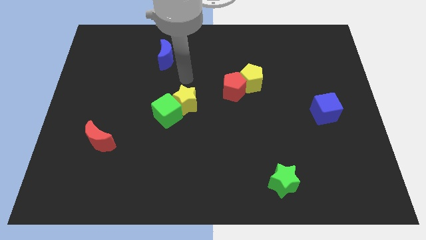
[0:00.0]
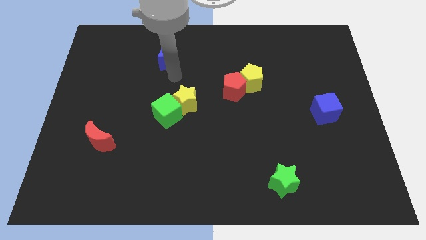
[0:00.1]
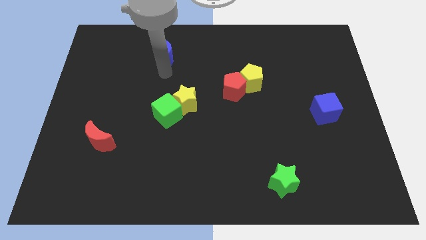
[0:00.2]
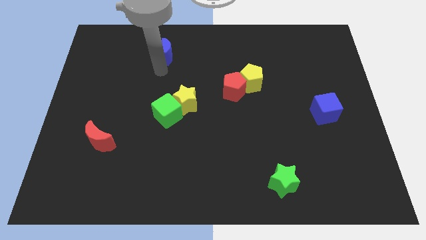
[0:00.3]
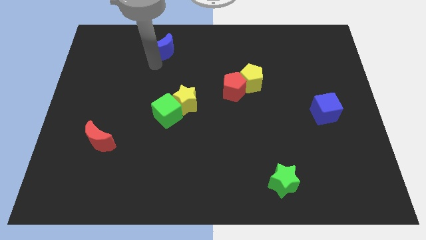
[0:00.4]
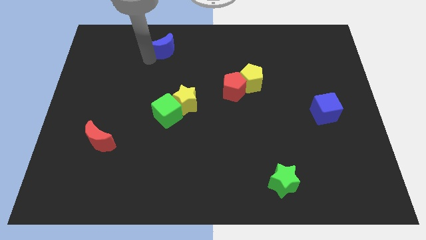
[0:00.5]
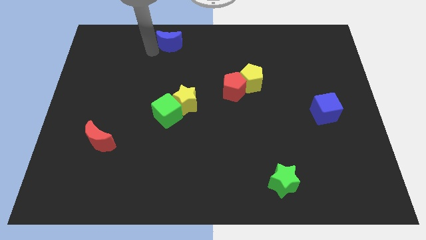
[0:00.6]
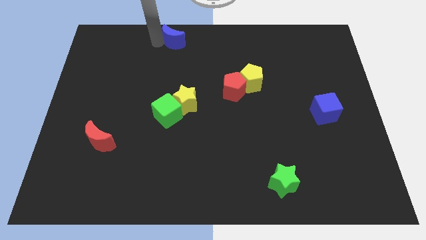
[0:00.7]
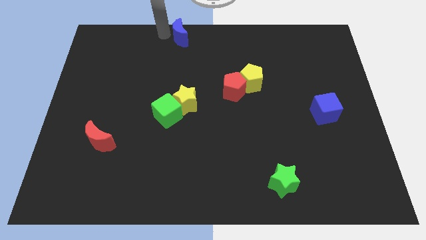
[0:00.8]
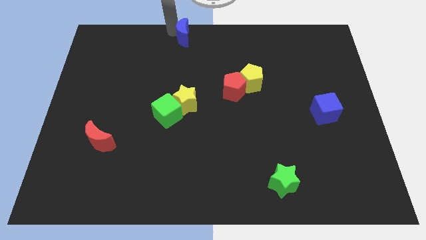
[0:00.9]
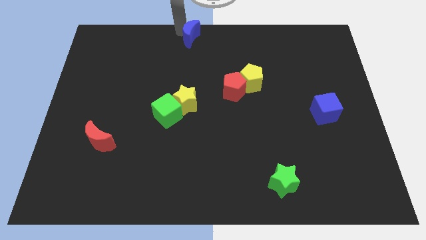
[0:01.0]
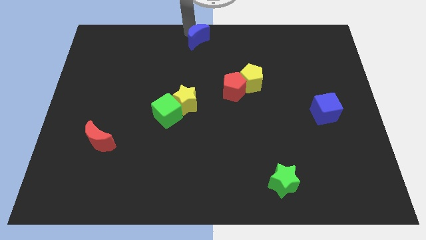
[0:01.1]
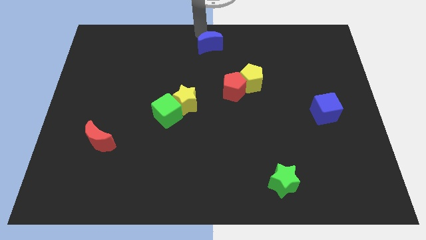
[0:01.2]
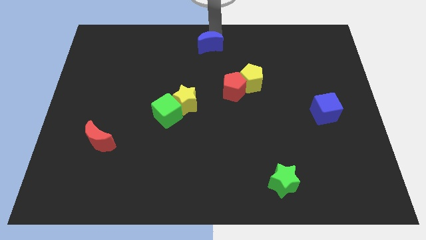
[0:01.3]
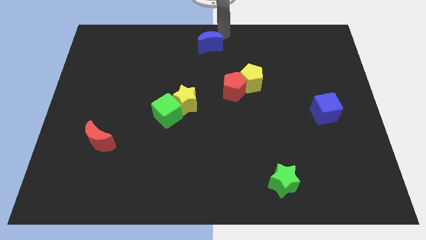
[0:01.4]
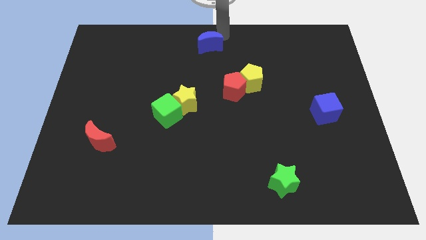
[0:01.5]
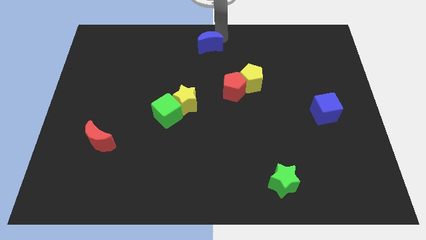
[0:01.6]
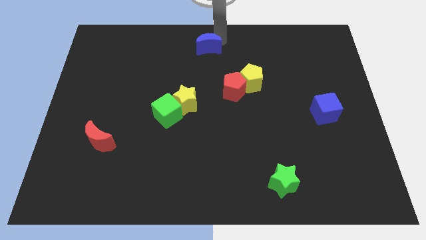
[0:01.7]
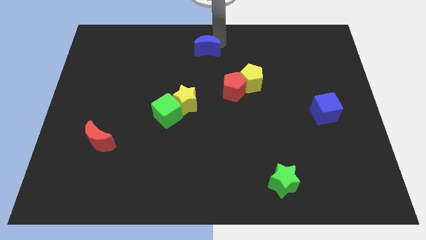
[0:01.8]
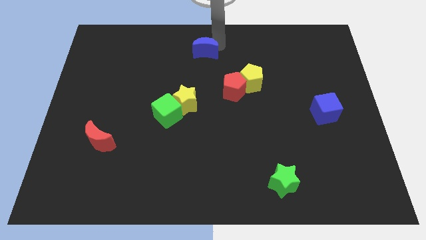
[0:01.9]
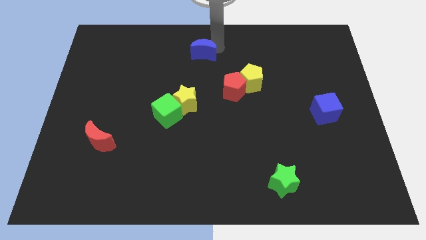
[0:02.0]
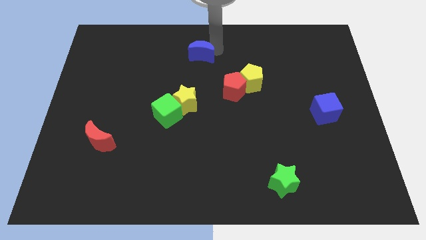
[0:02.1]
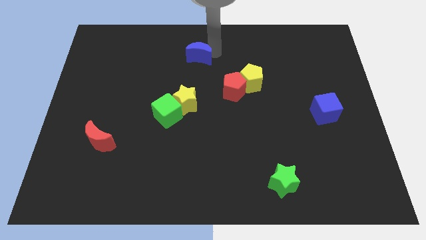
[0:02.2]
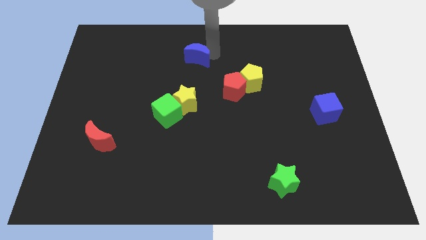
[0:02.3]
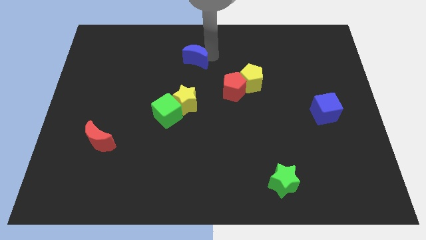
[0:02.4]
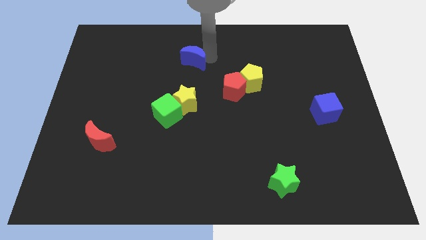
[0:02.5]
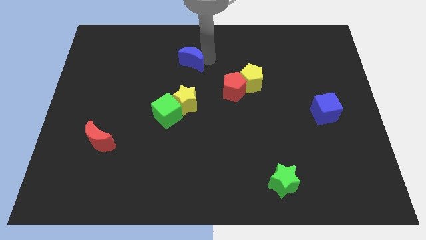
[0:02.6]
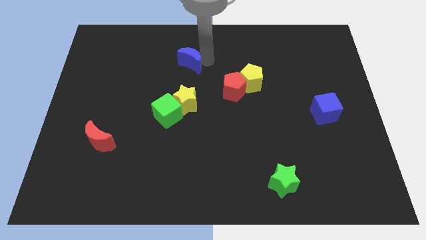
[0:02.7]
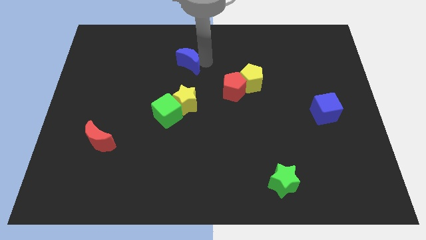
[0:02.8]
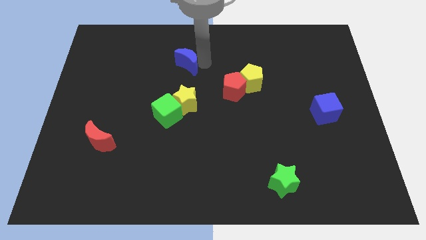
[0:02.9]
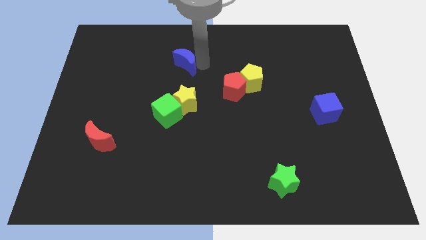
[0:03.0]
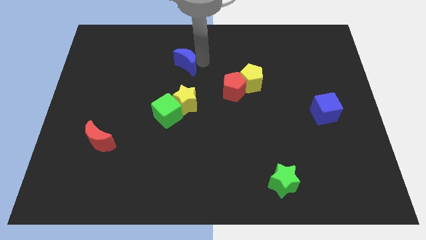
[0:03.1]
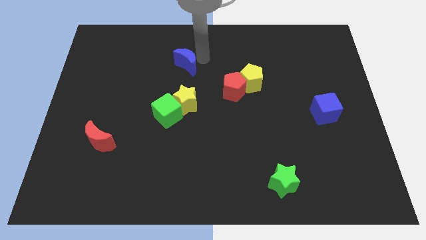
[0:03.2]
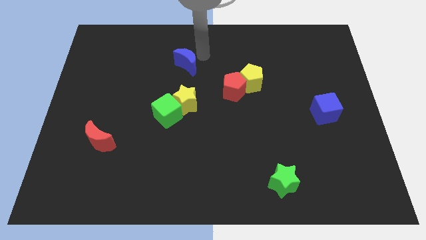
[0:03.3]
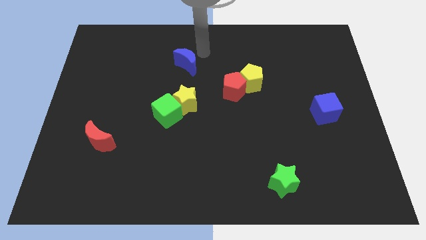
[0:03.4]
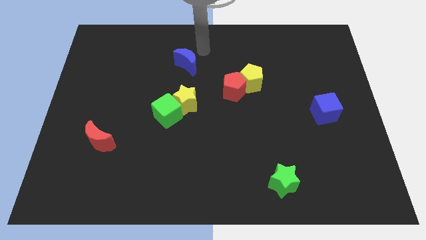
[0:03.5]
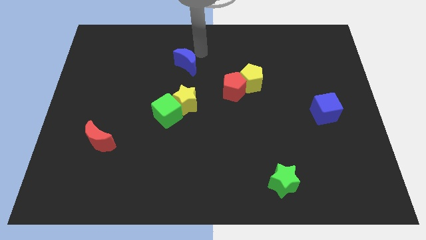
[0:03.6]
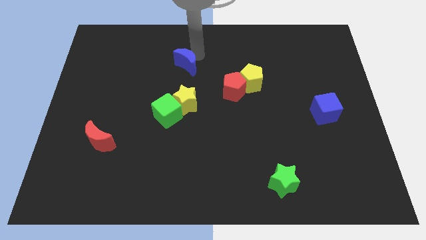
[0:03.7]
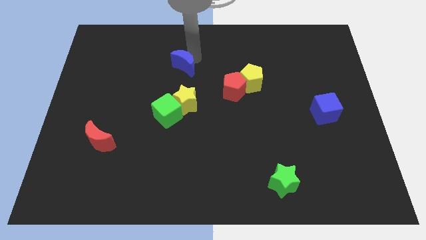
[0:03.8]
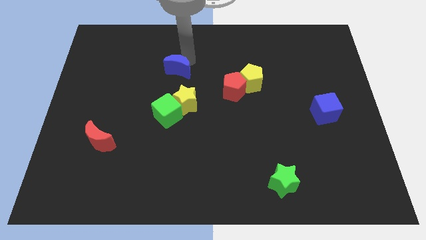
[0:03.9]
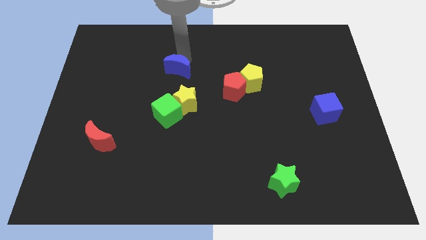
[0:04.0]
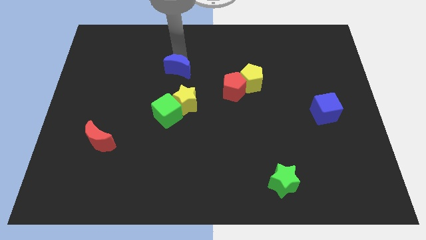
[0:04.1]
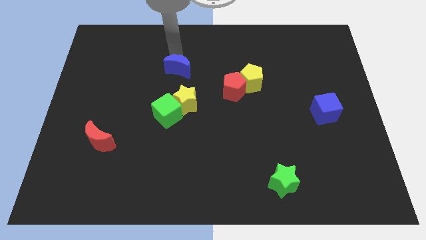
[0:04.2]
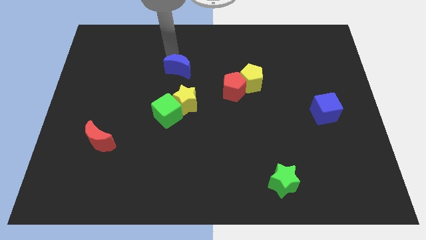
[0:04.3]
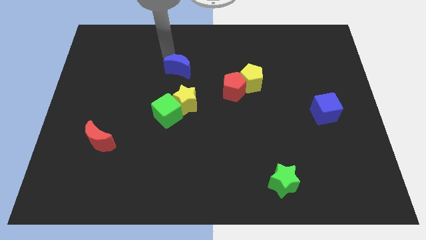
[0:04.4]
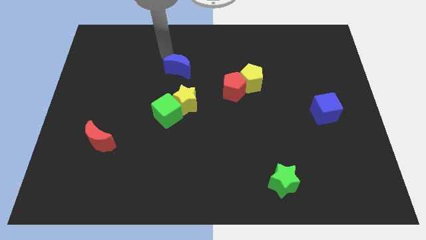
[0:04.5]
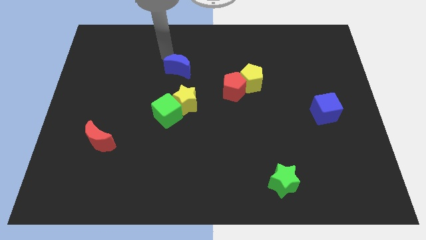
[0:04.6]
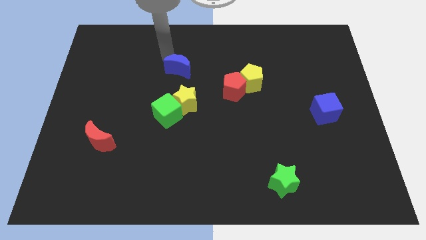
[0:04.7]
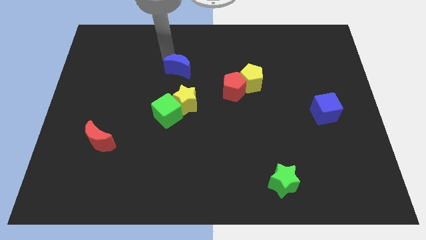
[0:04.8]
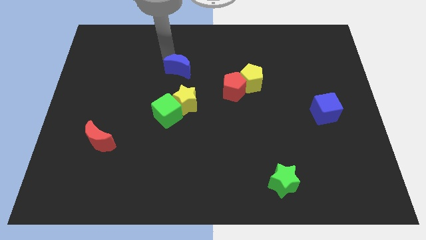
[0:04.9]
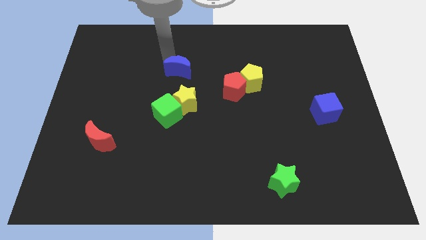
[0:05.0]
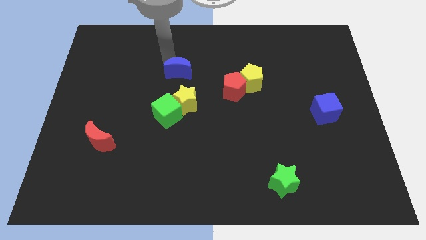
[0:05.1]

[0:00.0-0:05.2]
put the blue moon to the middle of the board

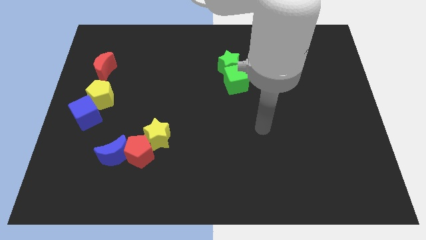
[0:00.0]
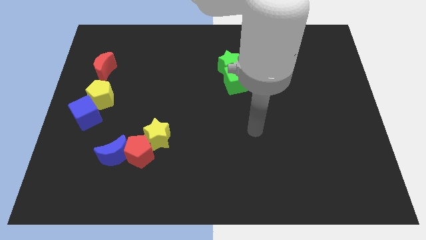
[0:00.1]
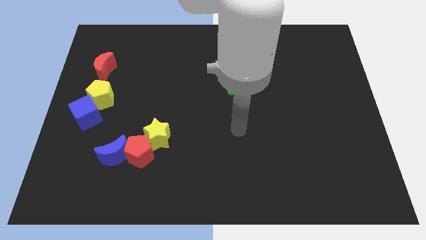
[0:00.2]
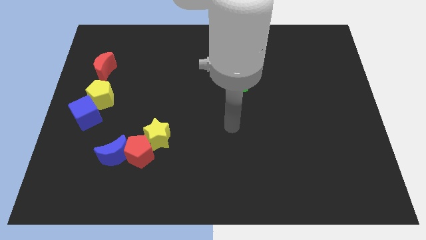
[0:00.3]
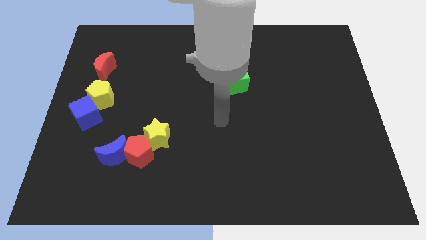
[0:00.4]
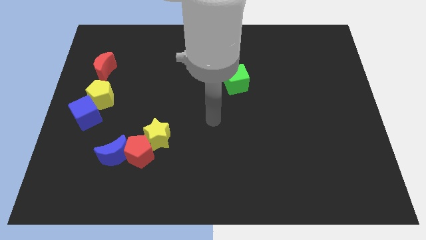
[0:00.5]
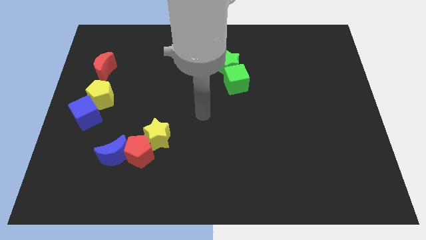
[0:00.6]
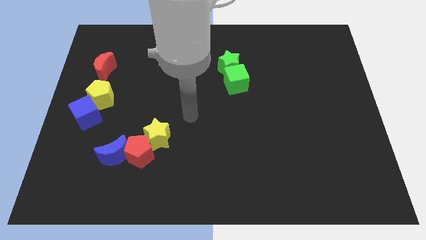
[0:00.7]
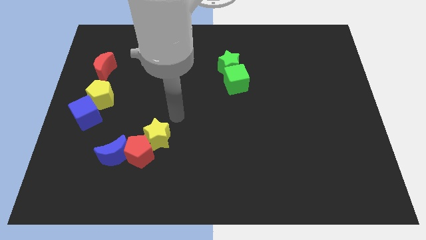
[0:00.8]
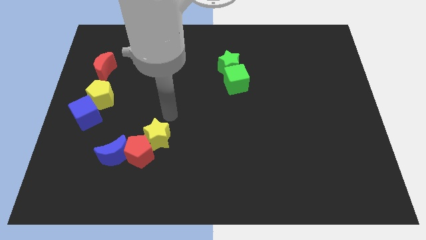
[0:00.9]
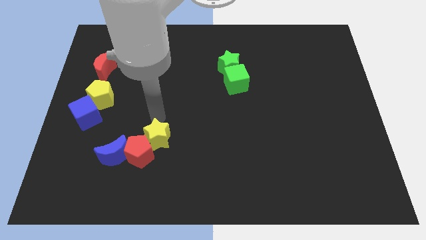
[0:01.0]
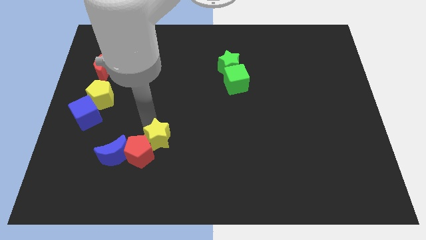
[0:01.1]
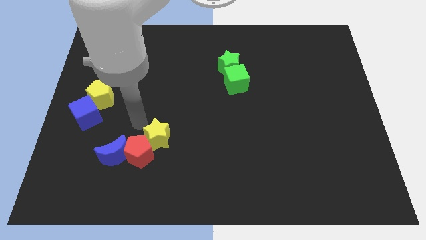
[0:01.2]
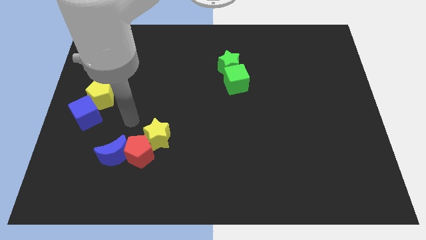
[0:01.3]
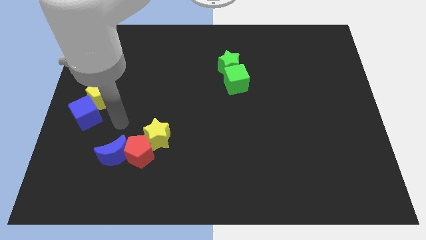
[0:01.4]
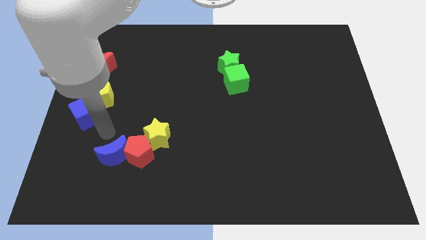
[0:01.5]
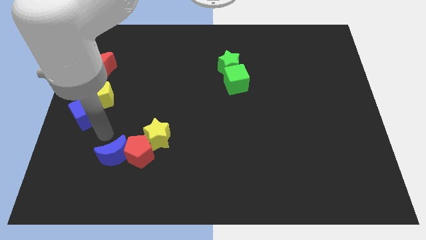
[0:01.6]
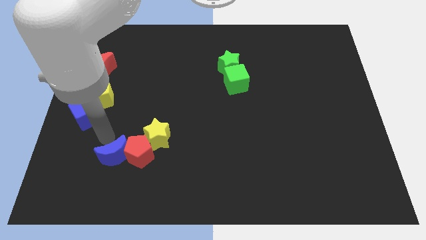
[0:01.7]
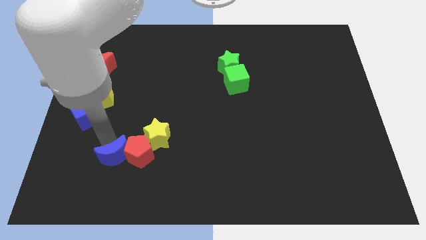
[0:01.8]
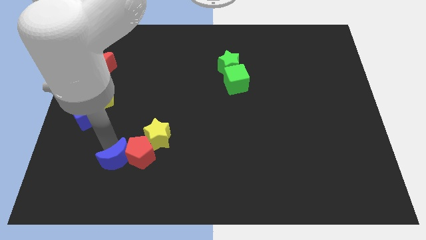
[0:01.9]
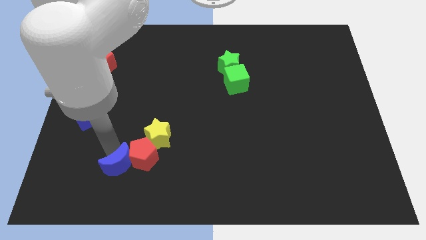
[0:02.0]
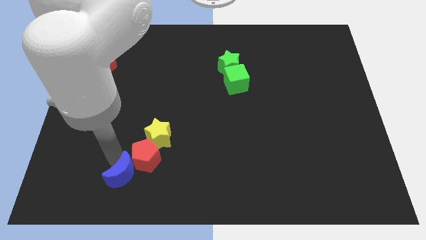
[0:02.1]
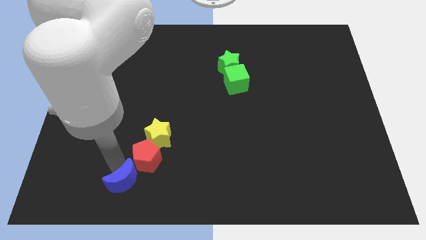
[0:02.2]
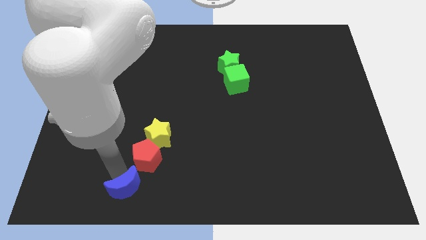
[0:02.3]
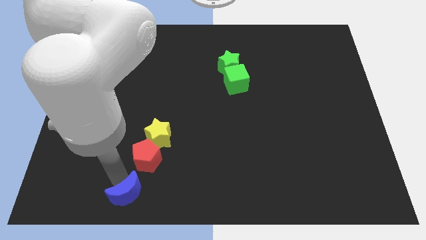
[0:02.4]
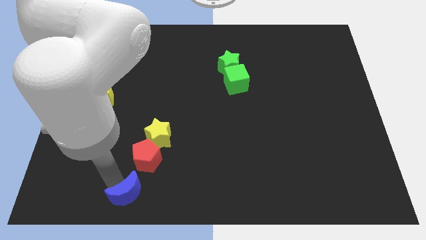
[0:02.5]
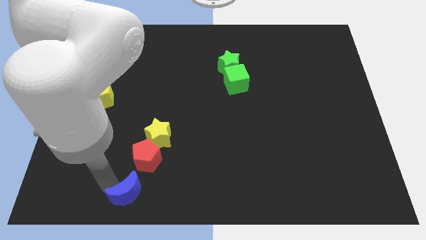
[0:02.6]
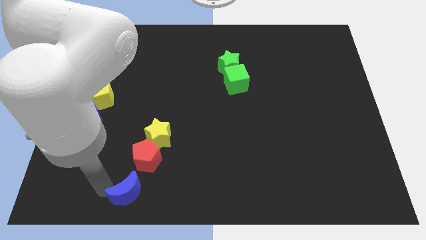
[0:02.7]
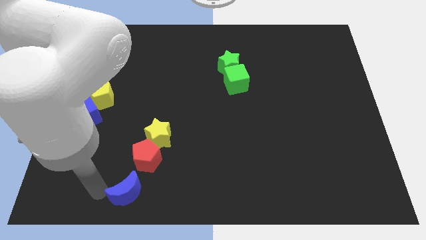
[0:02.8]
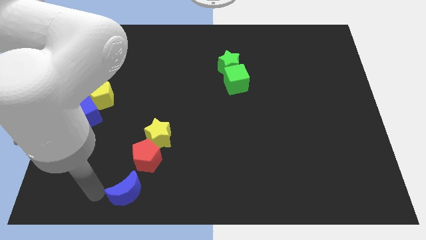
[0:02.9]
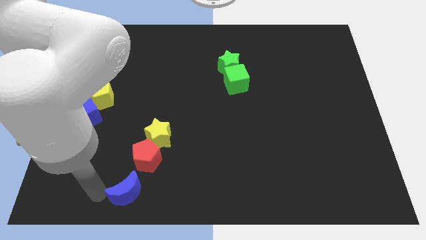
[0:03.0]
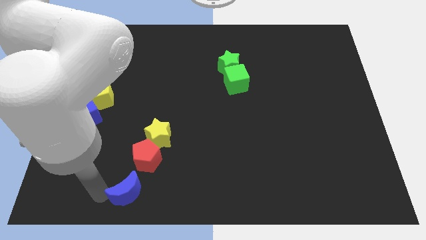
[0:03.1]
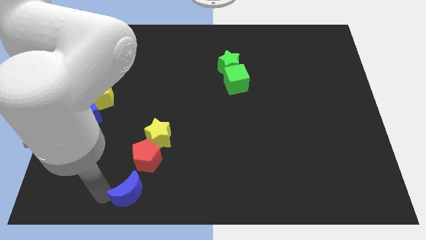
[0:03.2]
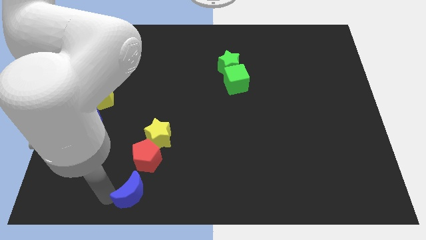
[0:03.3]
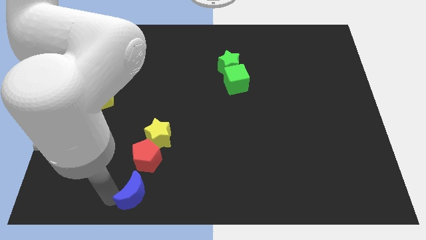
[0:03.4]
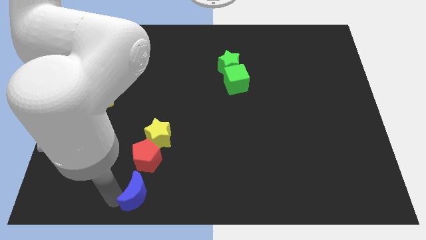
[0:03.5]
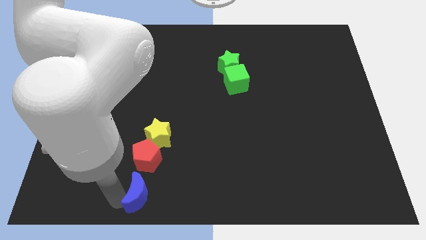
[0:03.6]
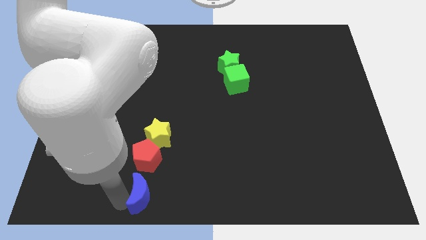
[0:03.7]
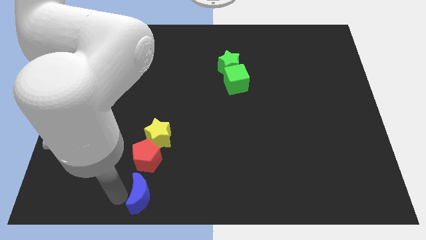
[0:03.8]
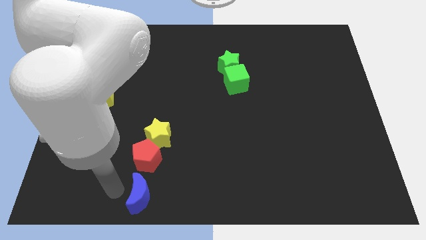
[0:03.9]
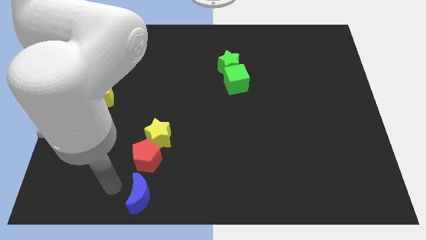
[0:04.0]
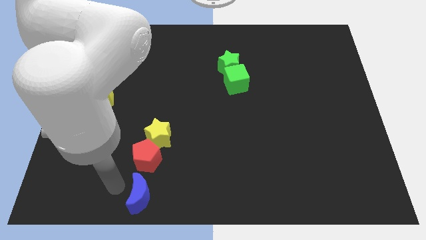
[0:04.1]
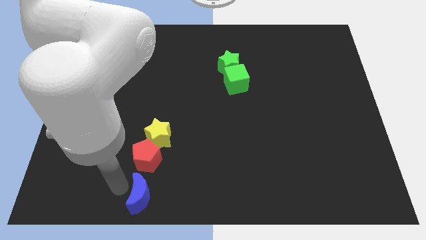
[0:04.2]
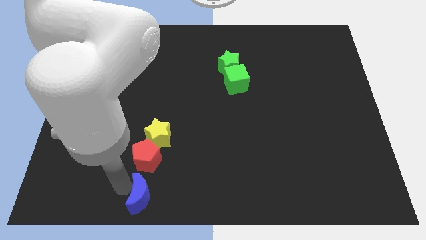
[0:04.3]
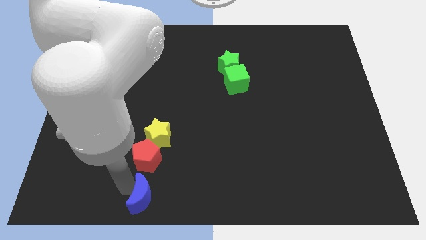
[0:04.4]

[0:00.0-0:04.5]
put the blue moon to the bottom
